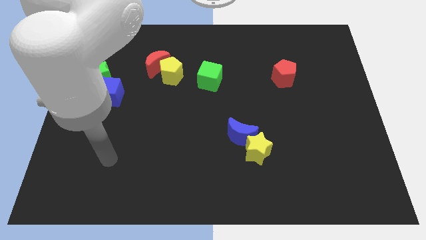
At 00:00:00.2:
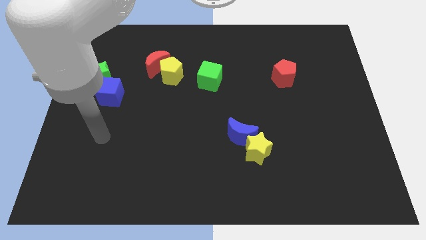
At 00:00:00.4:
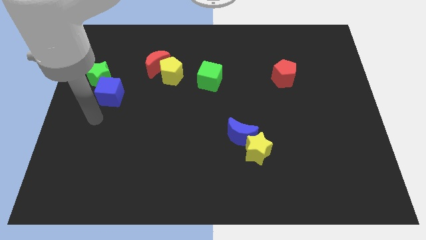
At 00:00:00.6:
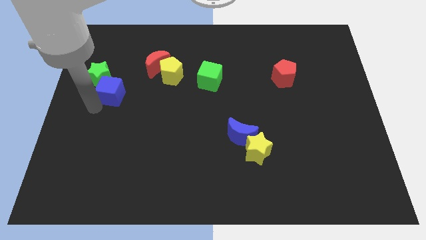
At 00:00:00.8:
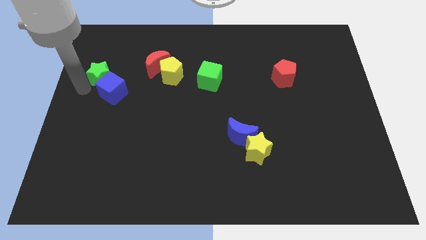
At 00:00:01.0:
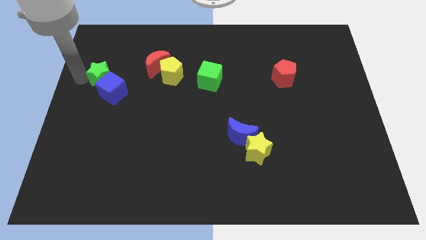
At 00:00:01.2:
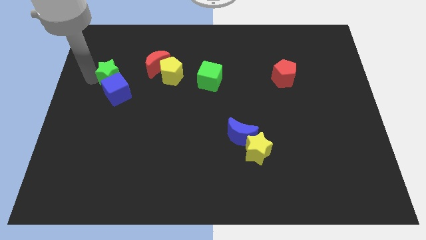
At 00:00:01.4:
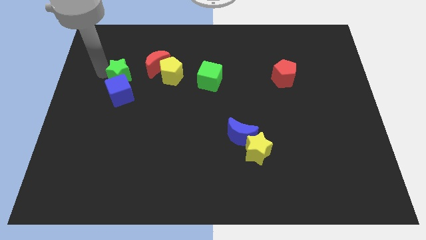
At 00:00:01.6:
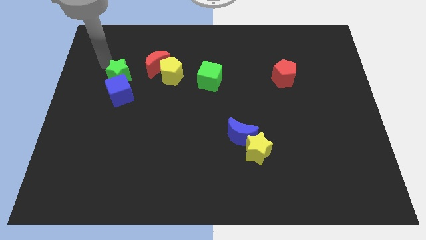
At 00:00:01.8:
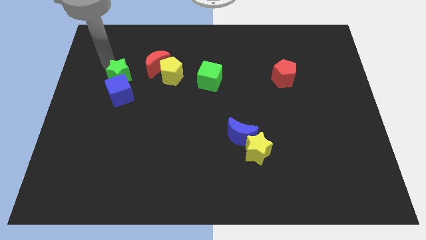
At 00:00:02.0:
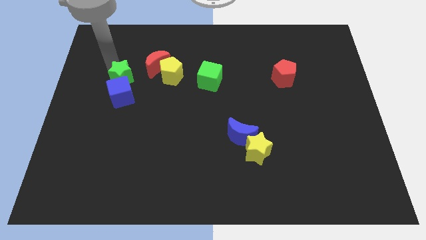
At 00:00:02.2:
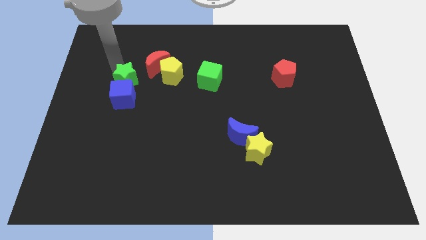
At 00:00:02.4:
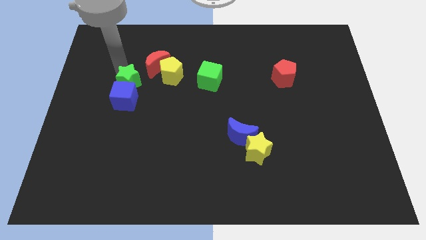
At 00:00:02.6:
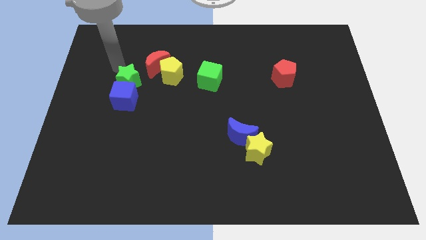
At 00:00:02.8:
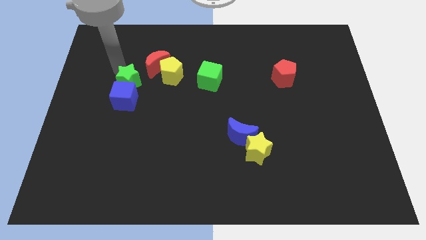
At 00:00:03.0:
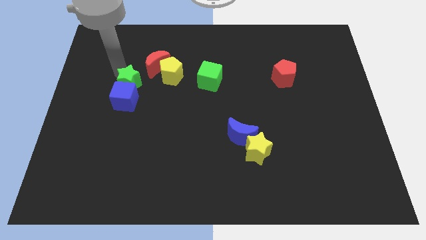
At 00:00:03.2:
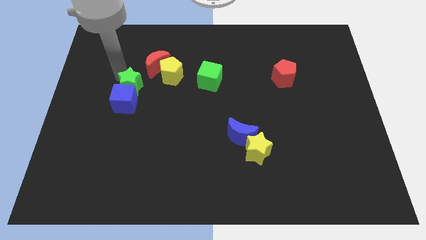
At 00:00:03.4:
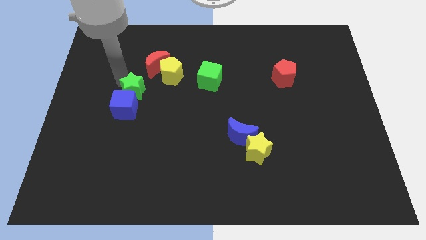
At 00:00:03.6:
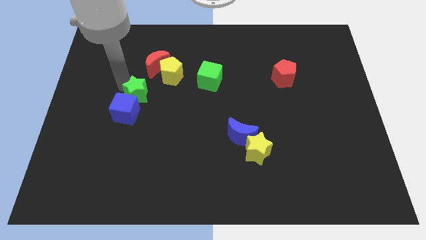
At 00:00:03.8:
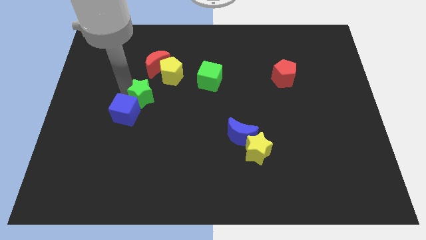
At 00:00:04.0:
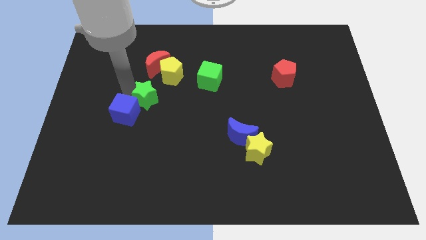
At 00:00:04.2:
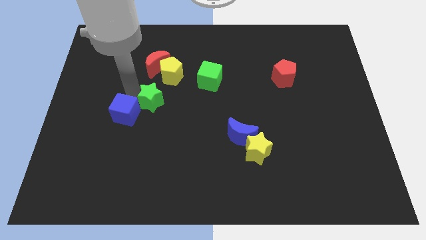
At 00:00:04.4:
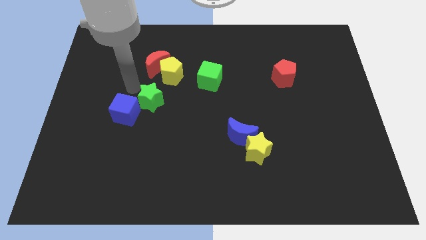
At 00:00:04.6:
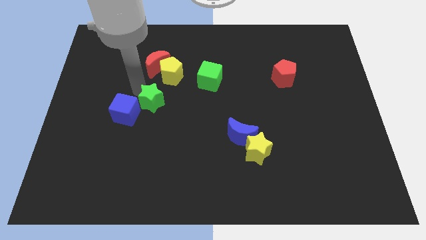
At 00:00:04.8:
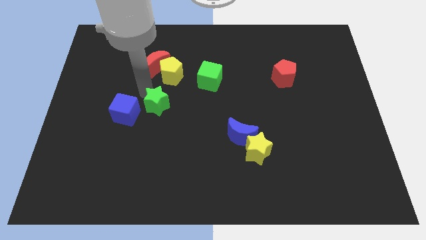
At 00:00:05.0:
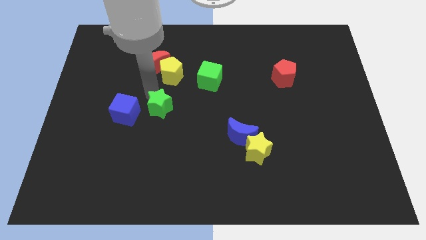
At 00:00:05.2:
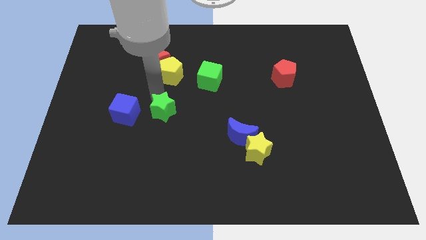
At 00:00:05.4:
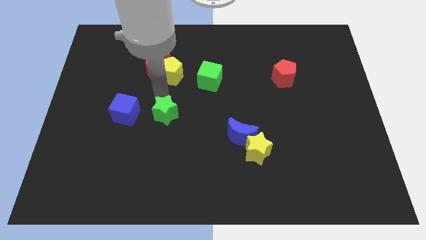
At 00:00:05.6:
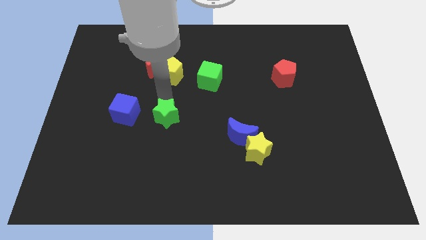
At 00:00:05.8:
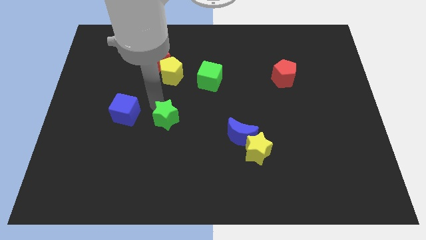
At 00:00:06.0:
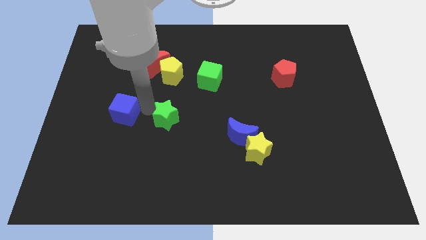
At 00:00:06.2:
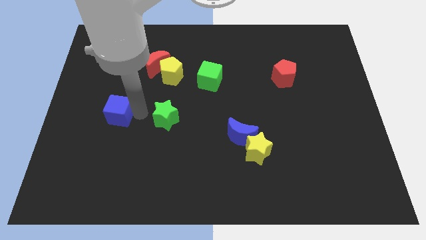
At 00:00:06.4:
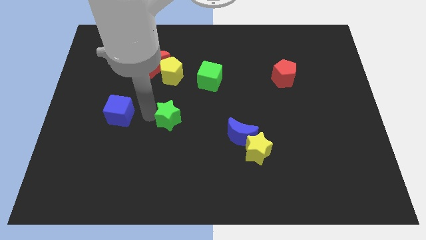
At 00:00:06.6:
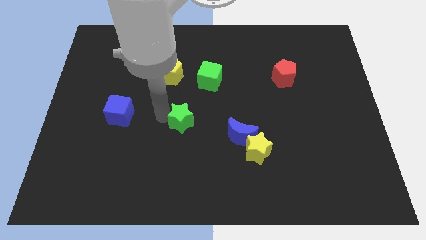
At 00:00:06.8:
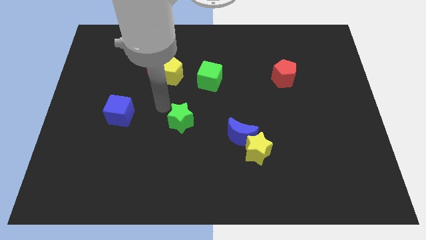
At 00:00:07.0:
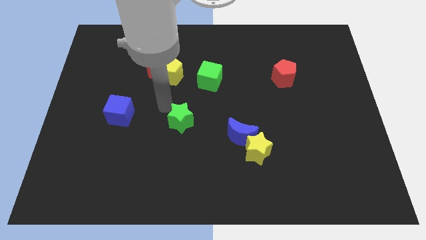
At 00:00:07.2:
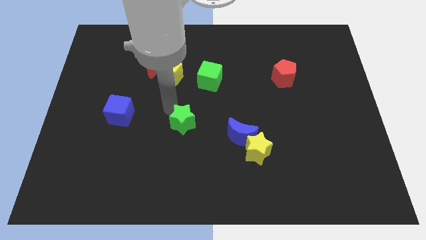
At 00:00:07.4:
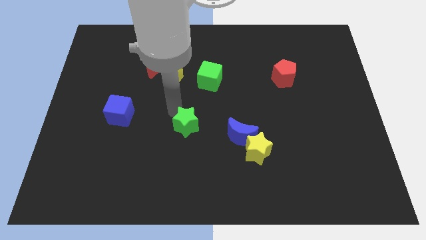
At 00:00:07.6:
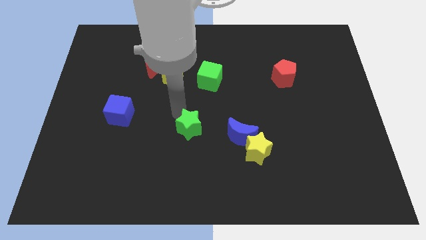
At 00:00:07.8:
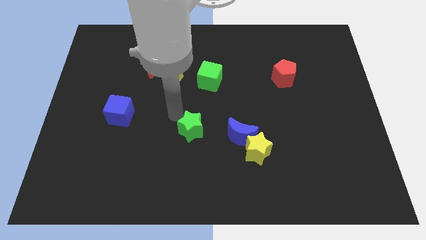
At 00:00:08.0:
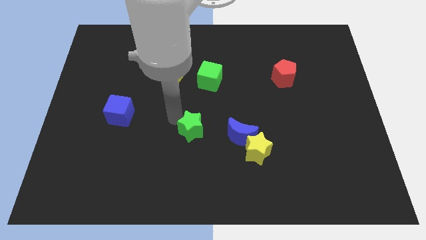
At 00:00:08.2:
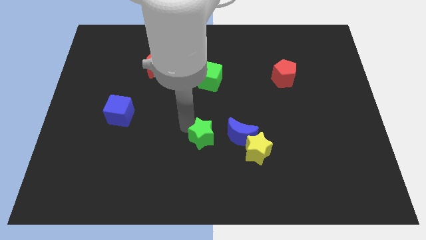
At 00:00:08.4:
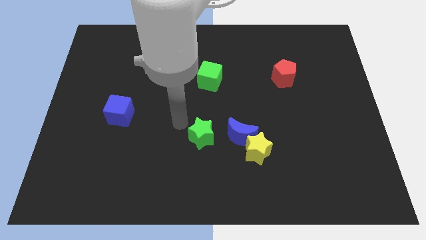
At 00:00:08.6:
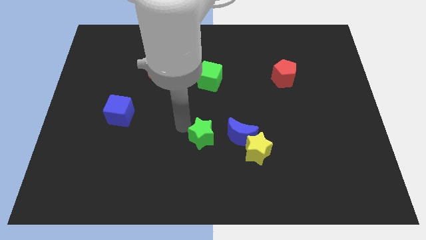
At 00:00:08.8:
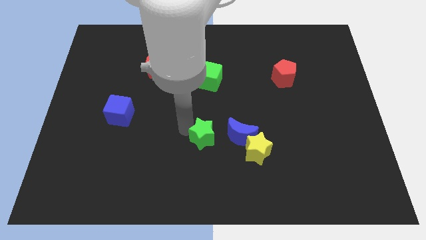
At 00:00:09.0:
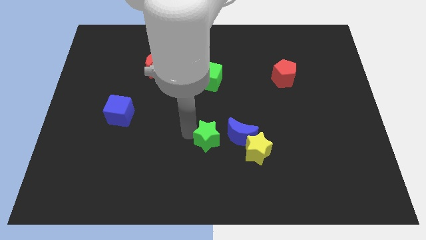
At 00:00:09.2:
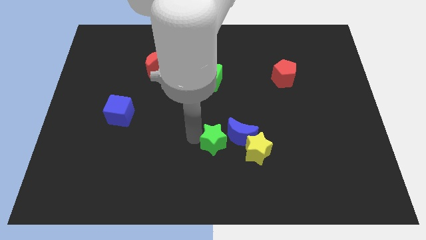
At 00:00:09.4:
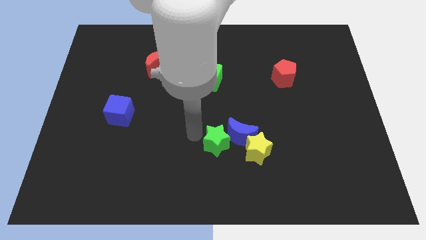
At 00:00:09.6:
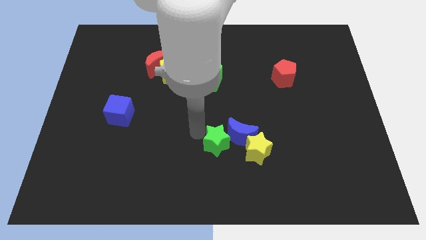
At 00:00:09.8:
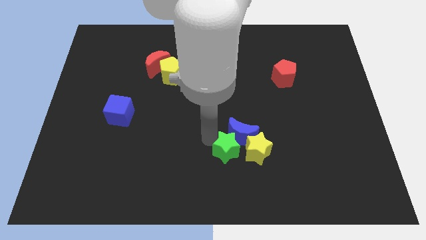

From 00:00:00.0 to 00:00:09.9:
move the green star next to the yellow star

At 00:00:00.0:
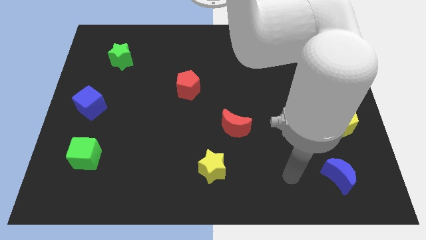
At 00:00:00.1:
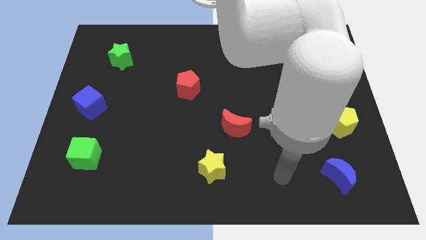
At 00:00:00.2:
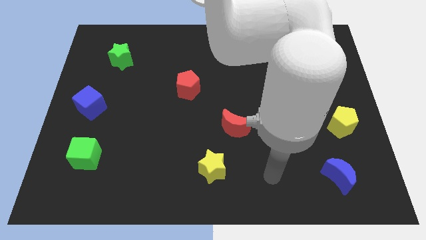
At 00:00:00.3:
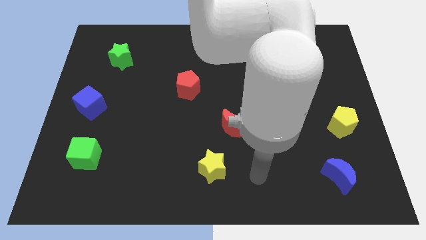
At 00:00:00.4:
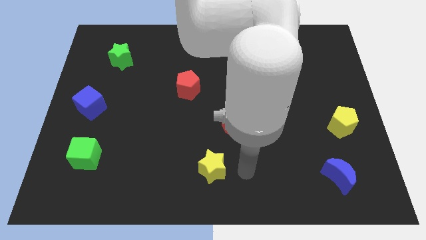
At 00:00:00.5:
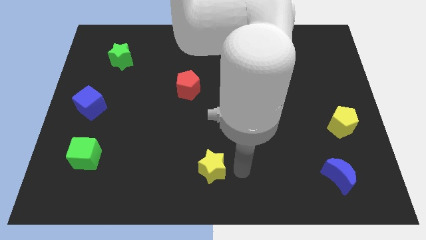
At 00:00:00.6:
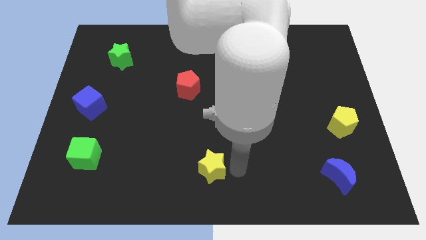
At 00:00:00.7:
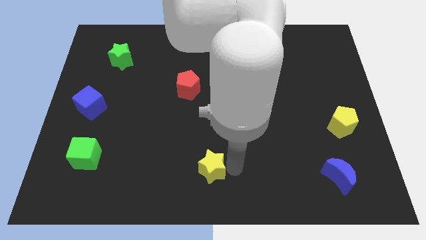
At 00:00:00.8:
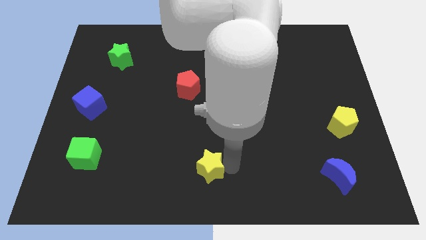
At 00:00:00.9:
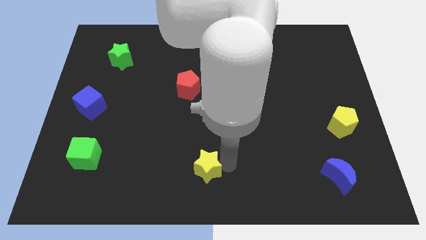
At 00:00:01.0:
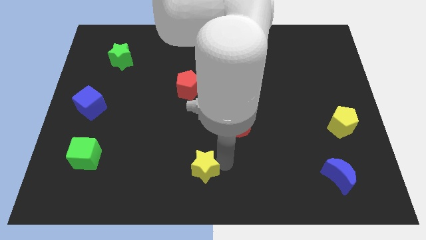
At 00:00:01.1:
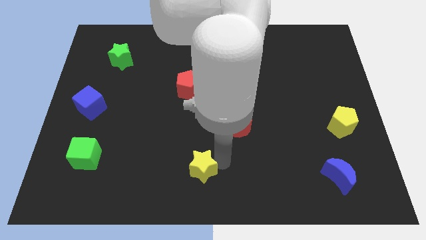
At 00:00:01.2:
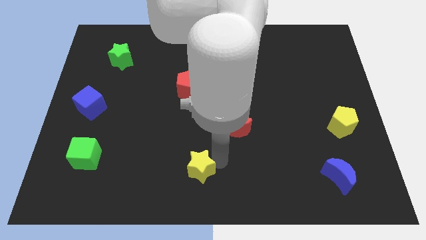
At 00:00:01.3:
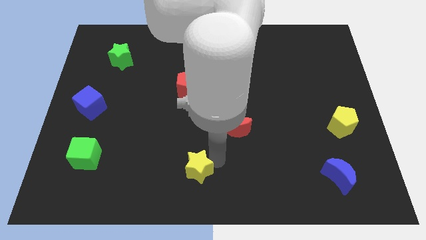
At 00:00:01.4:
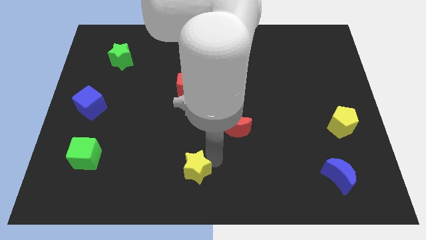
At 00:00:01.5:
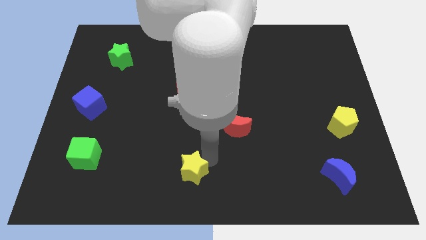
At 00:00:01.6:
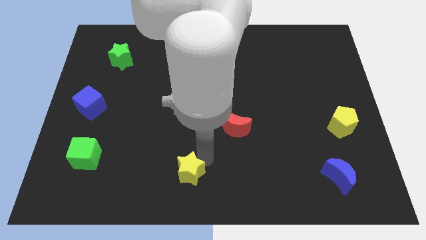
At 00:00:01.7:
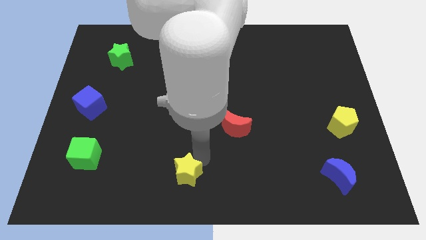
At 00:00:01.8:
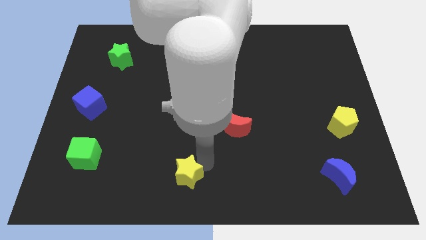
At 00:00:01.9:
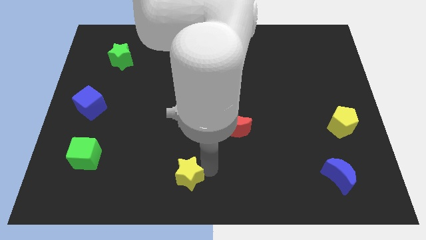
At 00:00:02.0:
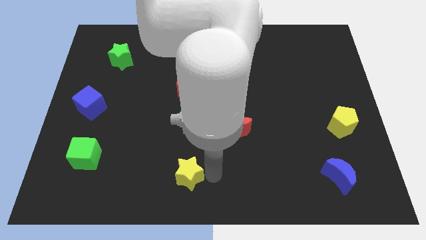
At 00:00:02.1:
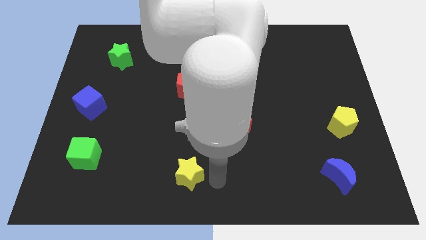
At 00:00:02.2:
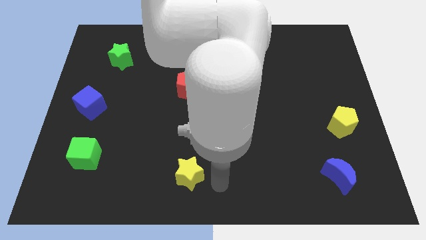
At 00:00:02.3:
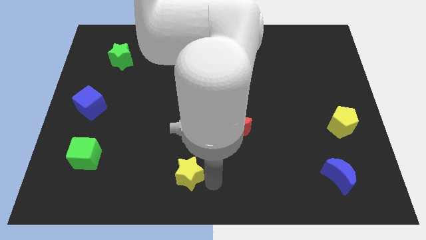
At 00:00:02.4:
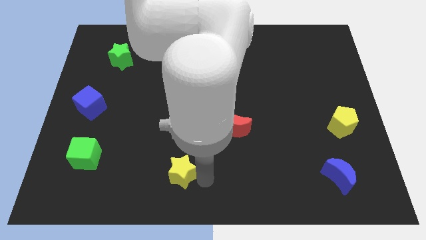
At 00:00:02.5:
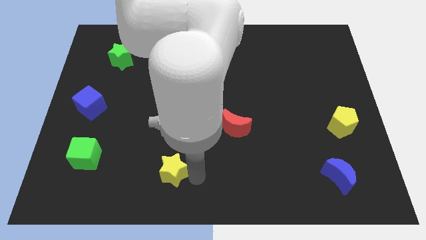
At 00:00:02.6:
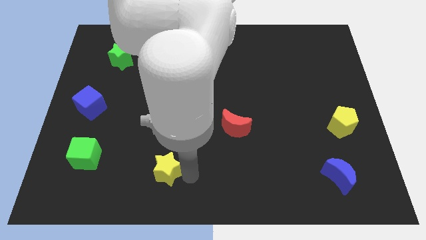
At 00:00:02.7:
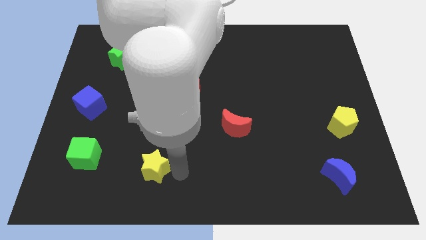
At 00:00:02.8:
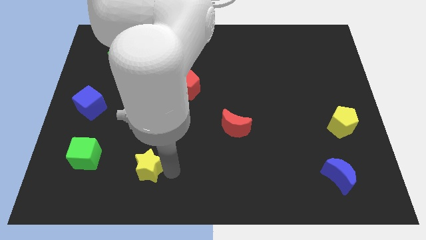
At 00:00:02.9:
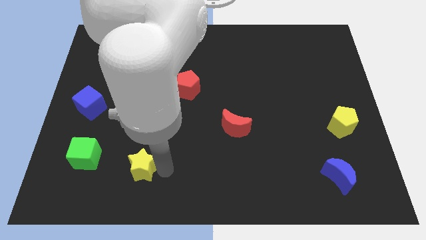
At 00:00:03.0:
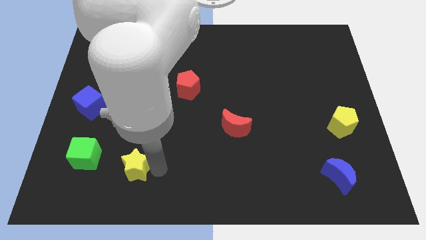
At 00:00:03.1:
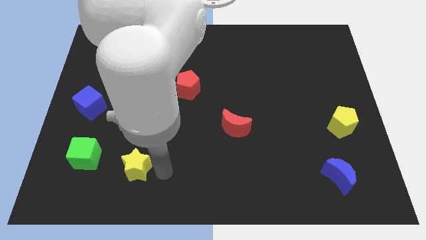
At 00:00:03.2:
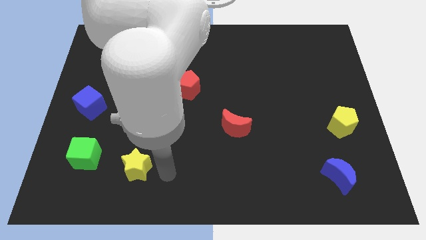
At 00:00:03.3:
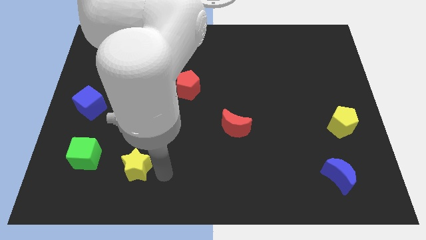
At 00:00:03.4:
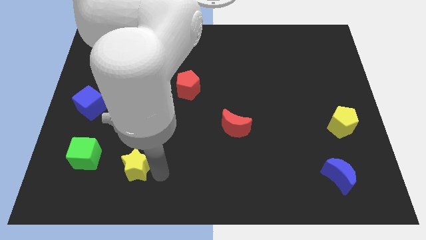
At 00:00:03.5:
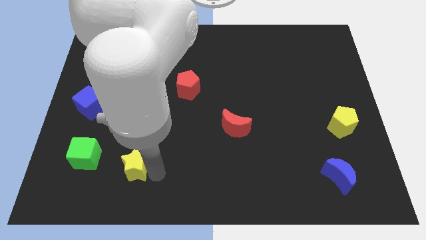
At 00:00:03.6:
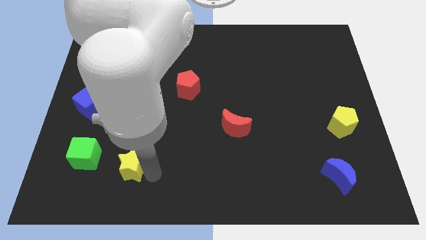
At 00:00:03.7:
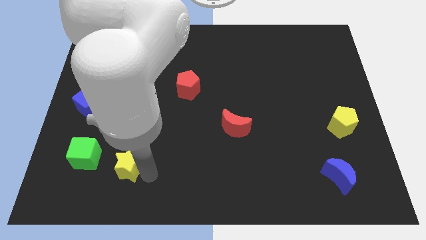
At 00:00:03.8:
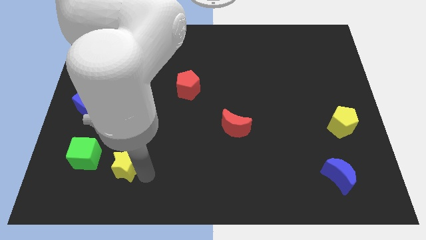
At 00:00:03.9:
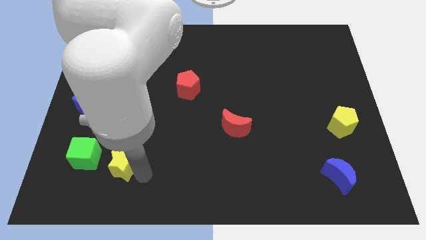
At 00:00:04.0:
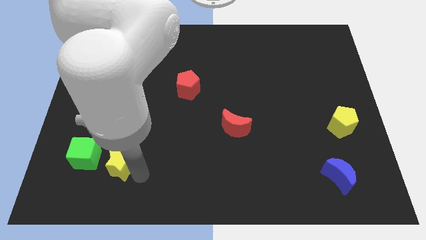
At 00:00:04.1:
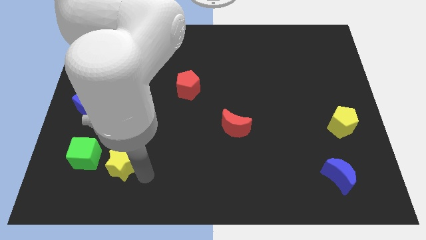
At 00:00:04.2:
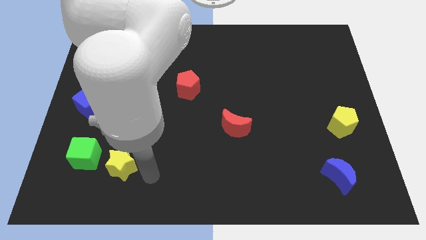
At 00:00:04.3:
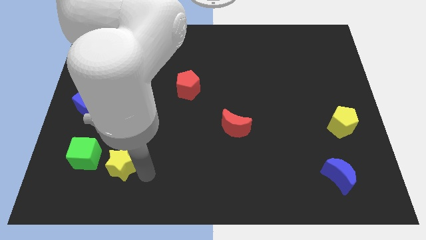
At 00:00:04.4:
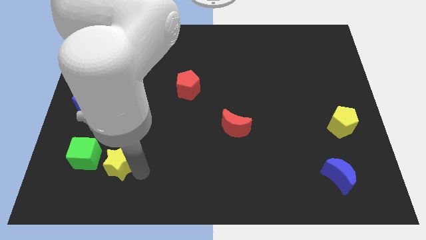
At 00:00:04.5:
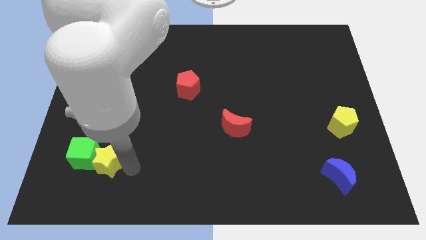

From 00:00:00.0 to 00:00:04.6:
put the yellow star close to the green cube
